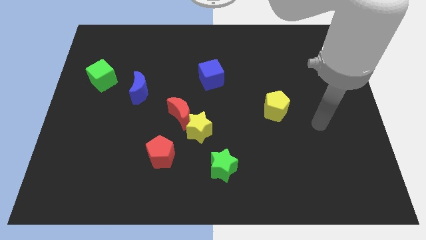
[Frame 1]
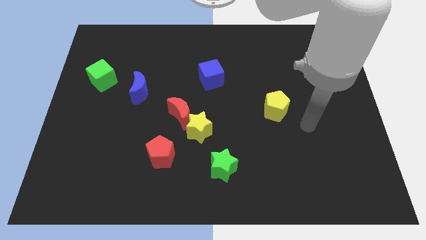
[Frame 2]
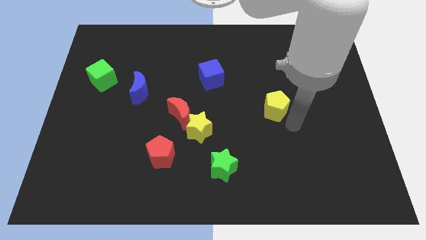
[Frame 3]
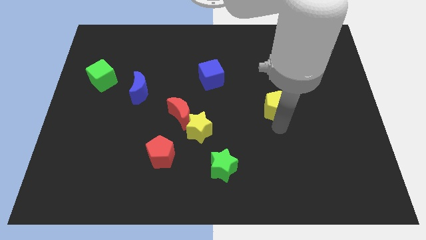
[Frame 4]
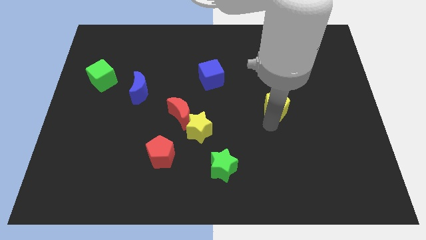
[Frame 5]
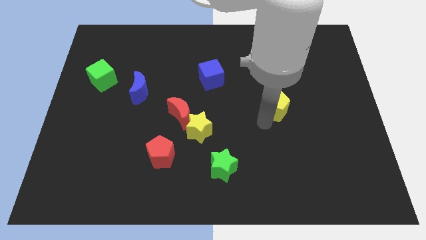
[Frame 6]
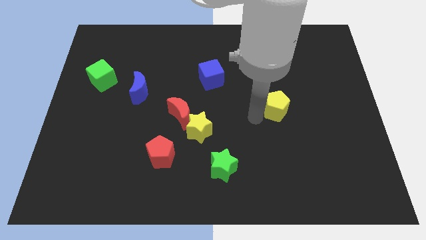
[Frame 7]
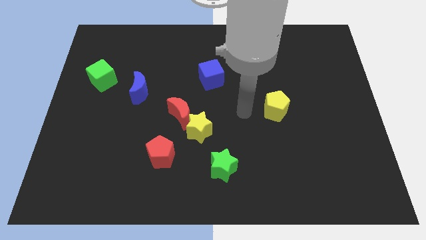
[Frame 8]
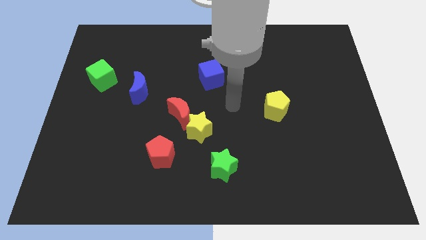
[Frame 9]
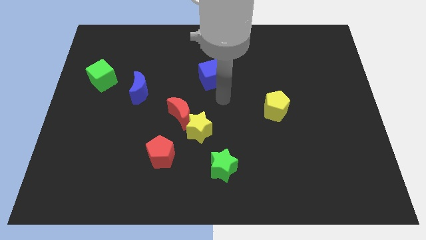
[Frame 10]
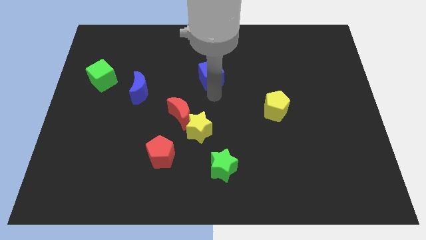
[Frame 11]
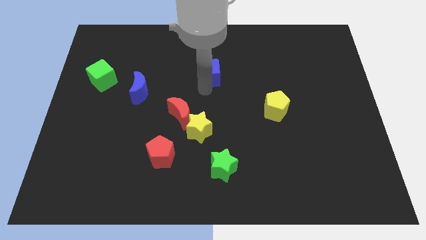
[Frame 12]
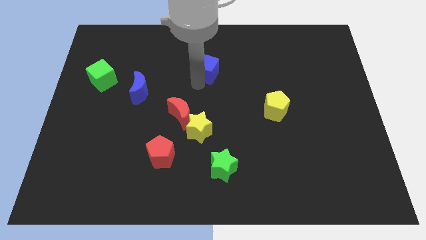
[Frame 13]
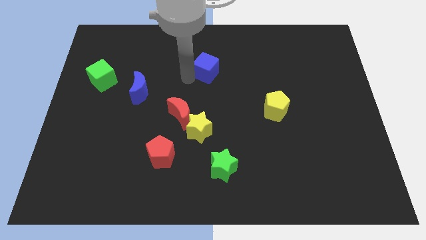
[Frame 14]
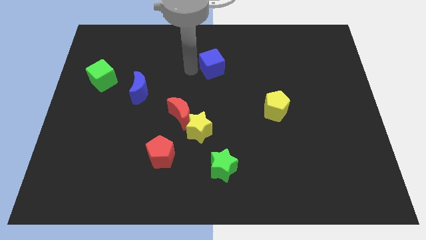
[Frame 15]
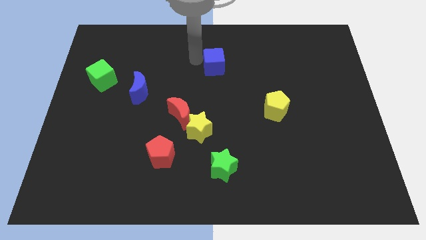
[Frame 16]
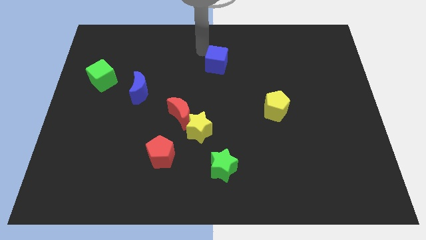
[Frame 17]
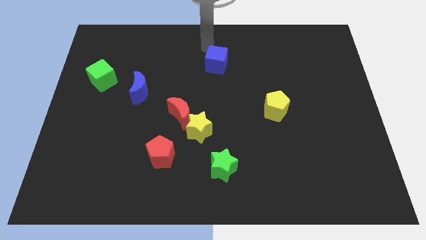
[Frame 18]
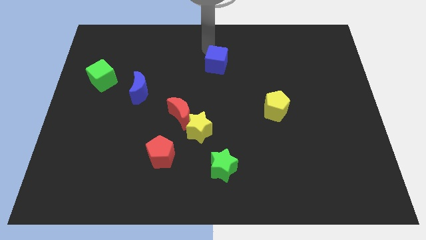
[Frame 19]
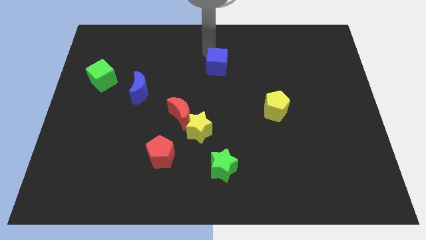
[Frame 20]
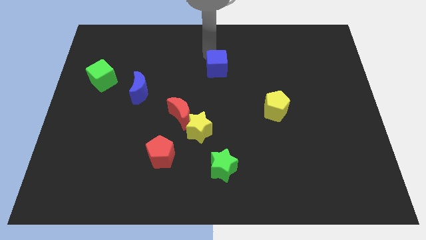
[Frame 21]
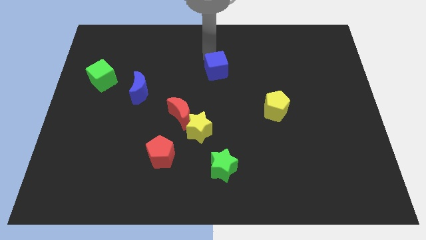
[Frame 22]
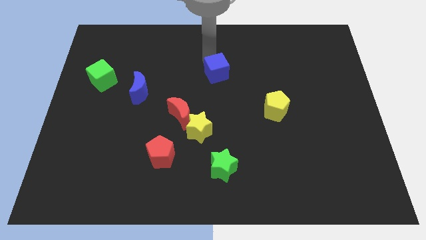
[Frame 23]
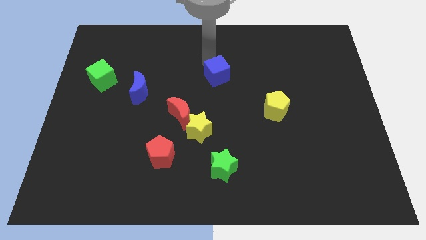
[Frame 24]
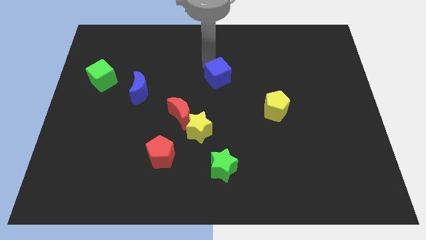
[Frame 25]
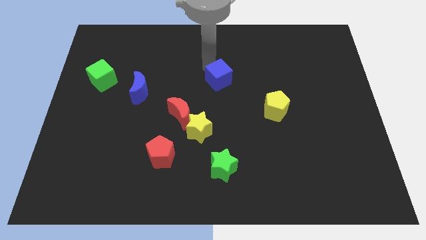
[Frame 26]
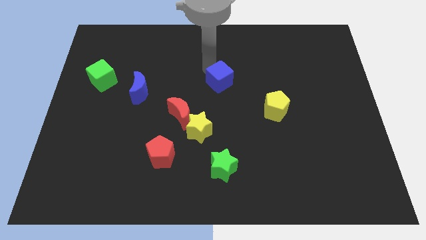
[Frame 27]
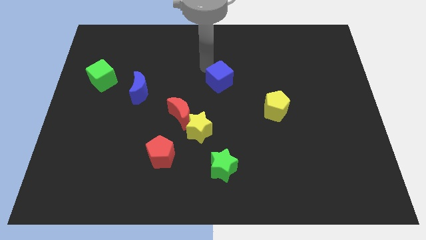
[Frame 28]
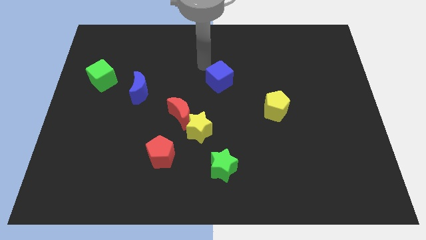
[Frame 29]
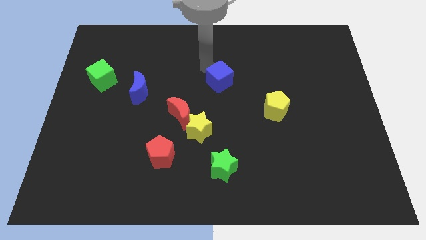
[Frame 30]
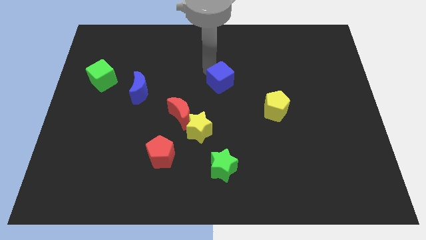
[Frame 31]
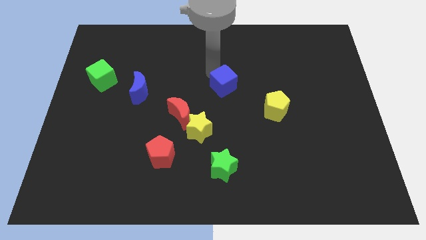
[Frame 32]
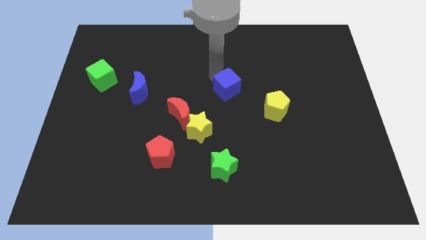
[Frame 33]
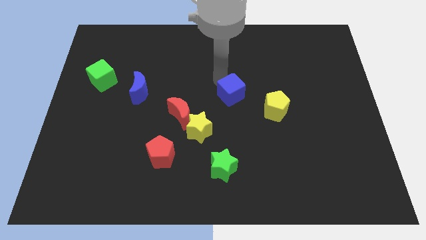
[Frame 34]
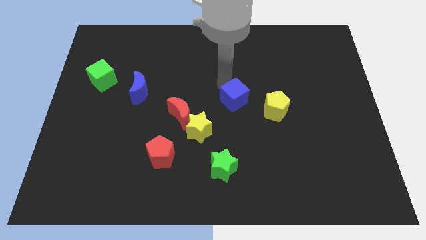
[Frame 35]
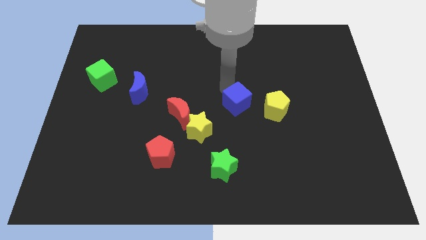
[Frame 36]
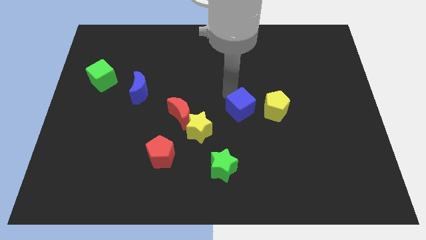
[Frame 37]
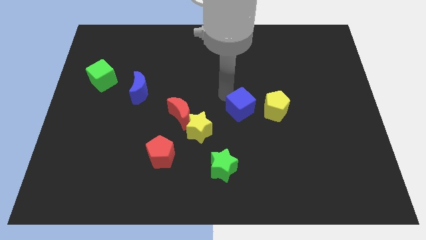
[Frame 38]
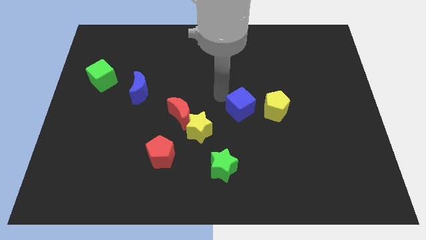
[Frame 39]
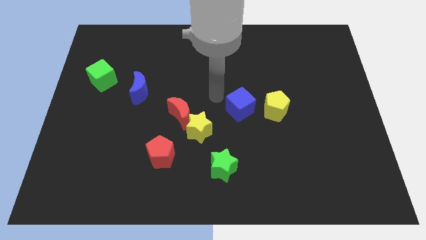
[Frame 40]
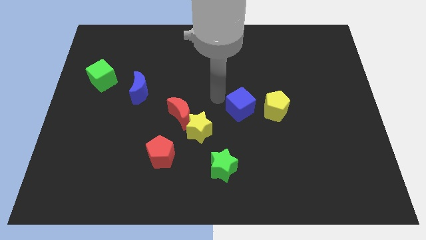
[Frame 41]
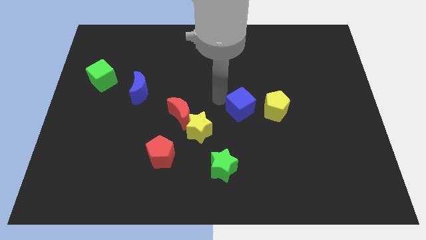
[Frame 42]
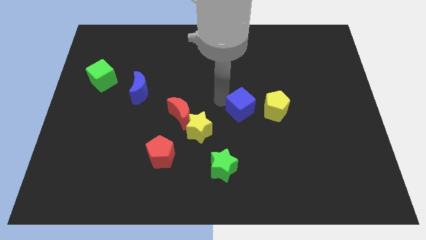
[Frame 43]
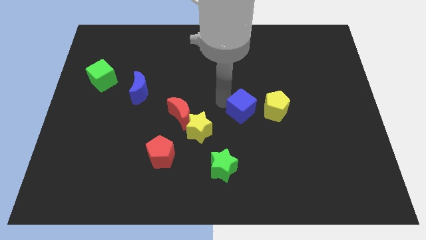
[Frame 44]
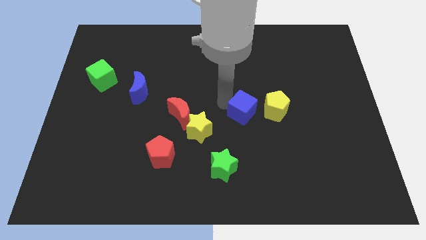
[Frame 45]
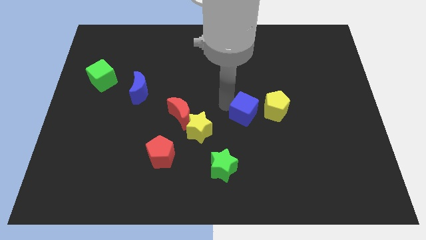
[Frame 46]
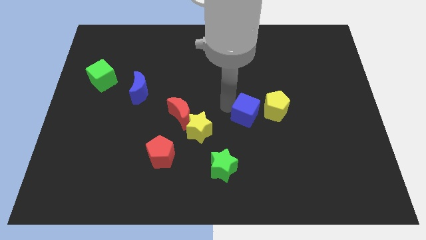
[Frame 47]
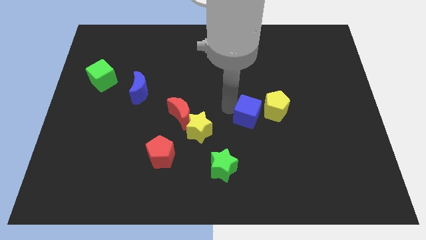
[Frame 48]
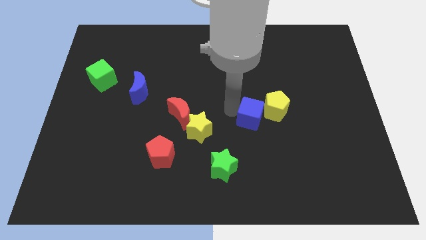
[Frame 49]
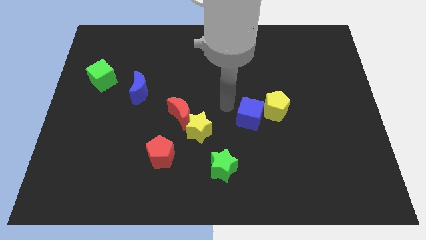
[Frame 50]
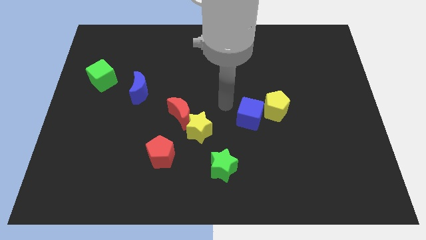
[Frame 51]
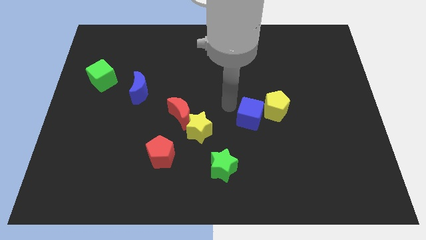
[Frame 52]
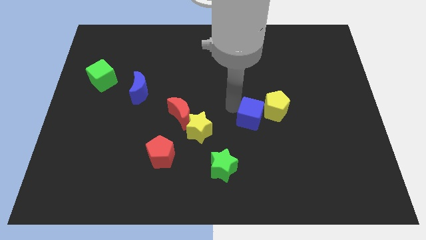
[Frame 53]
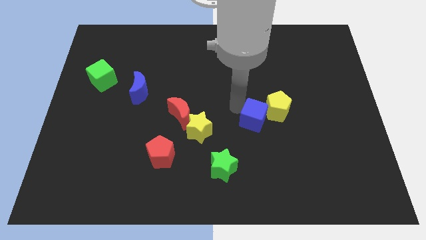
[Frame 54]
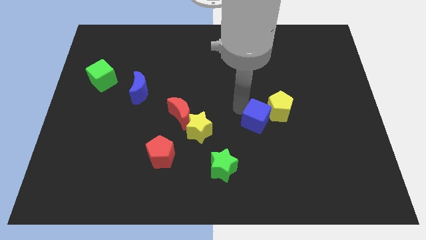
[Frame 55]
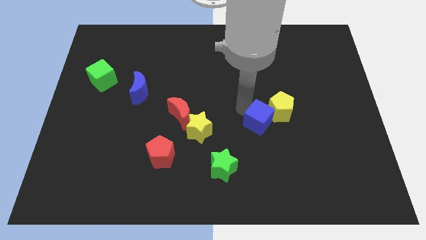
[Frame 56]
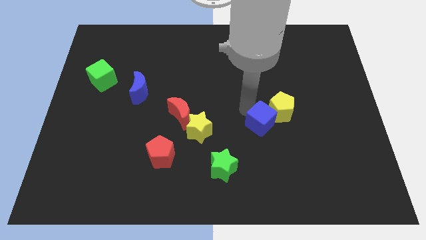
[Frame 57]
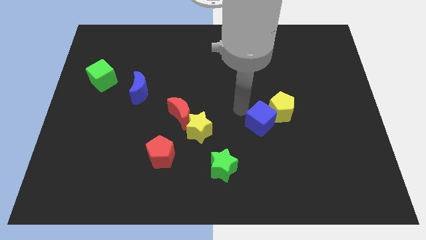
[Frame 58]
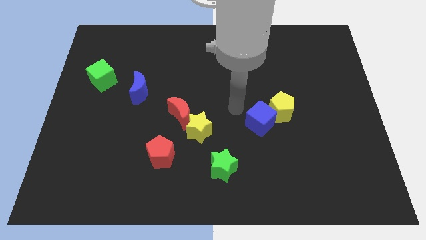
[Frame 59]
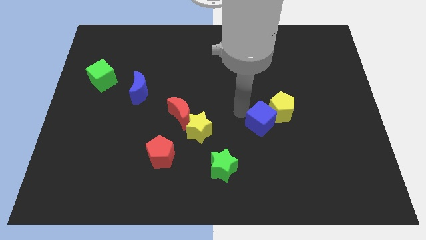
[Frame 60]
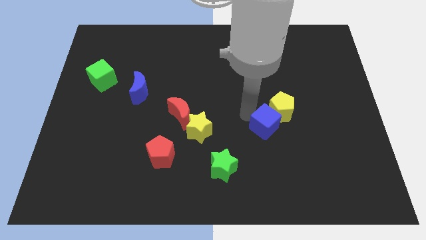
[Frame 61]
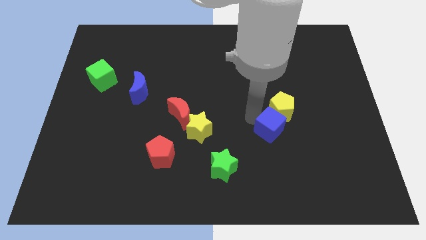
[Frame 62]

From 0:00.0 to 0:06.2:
slide the blue cube downwards and to the right

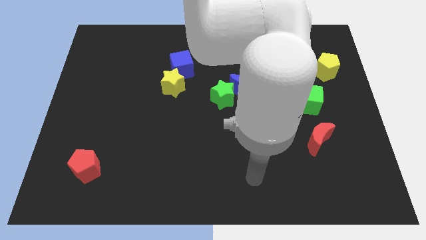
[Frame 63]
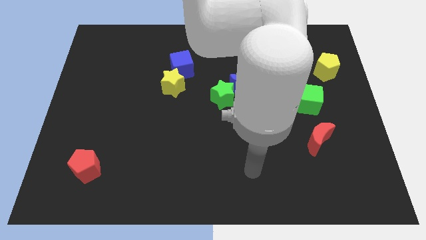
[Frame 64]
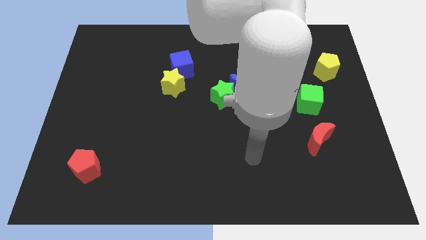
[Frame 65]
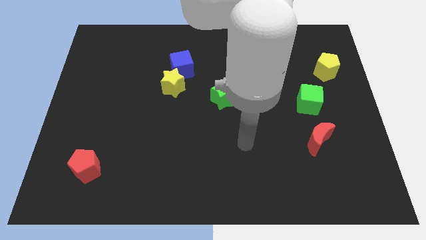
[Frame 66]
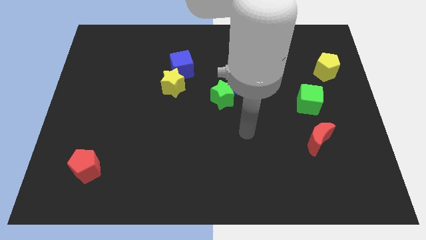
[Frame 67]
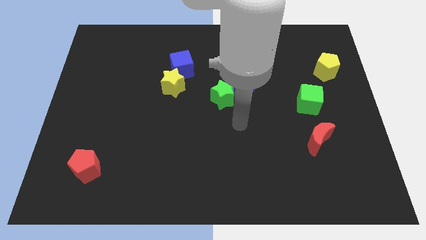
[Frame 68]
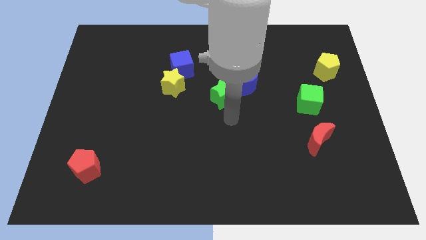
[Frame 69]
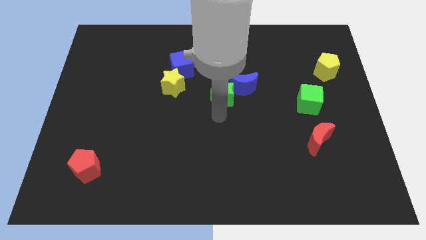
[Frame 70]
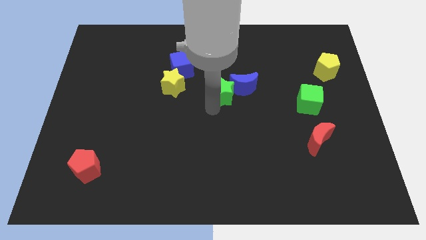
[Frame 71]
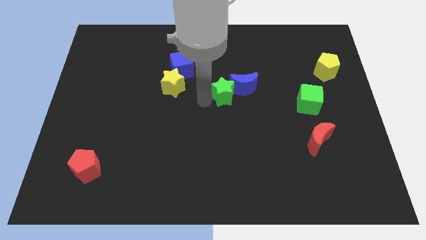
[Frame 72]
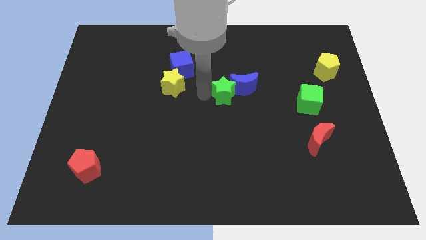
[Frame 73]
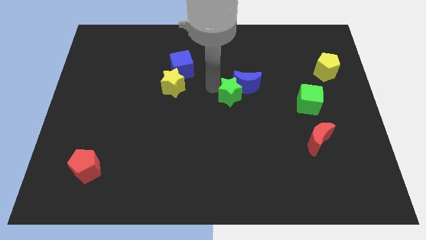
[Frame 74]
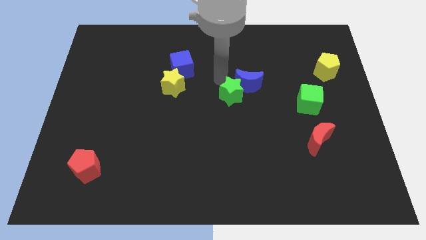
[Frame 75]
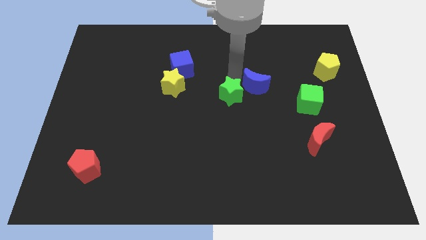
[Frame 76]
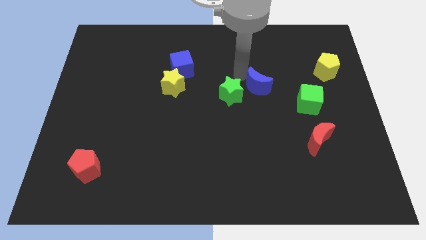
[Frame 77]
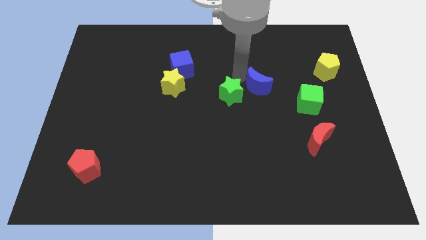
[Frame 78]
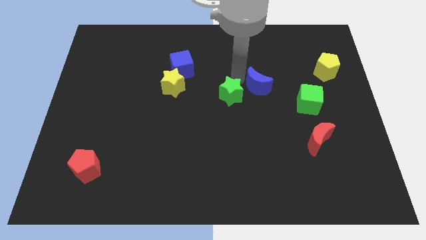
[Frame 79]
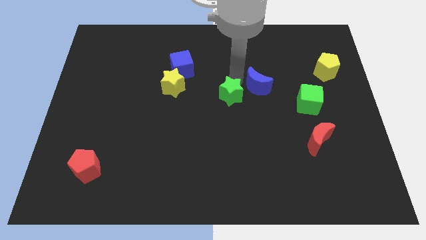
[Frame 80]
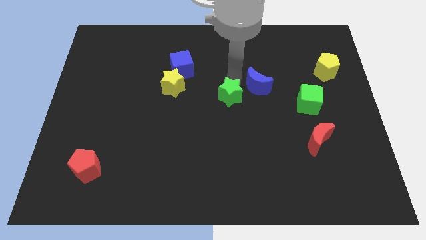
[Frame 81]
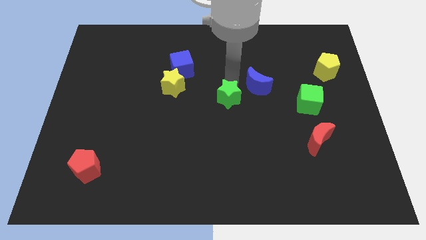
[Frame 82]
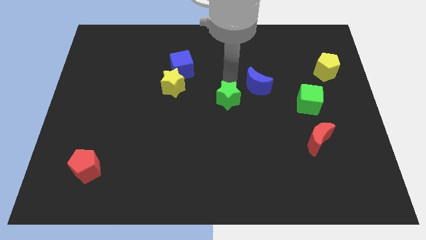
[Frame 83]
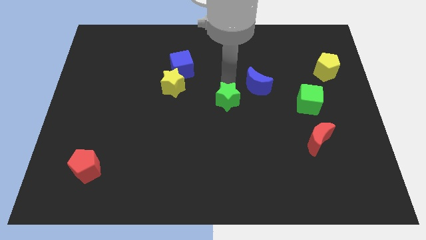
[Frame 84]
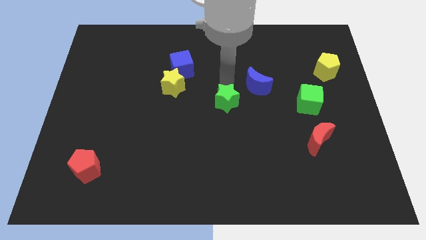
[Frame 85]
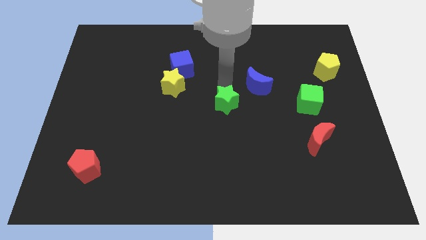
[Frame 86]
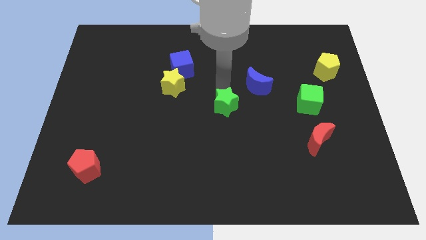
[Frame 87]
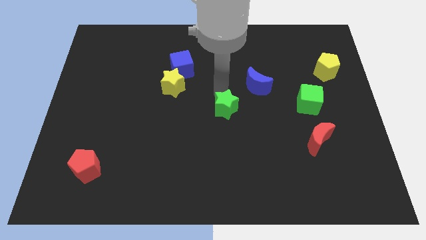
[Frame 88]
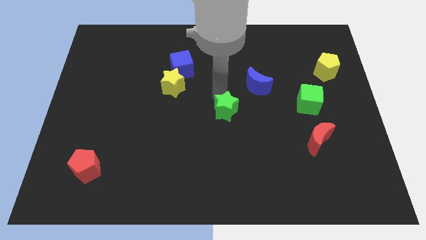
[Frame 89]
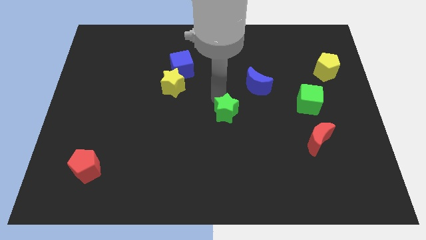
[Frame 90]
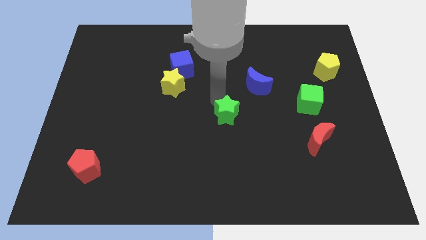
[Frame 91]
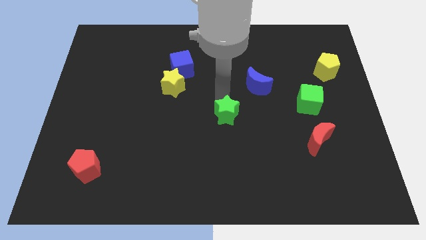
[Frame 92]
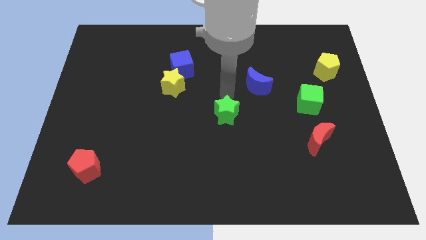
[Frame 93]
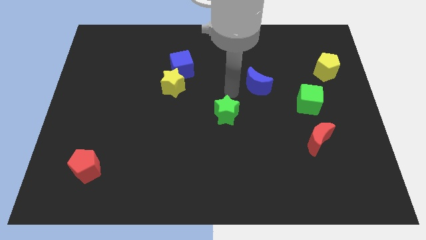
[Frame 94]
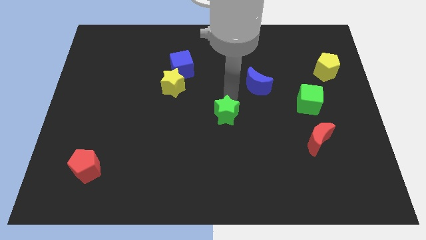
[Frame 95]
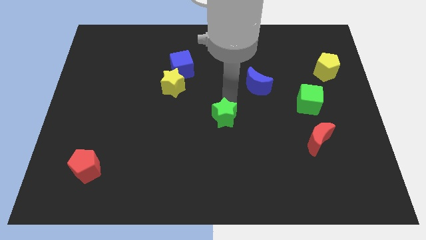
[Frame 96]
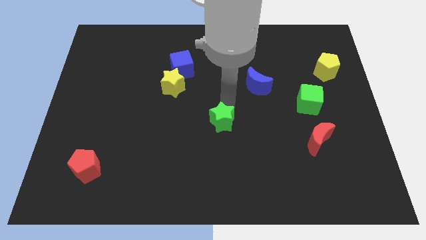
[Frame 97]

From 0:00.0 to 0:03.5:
slide the green star a little downwards
